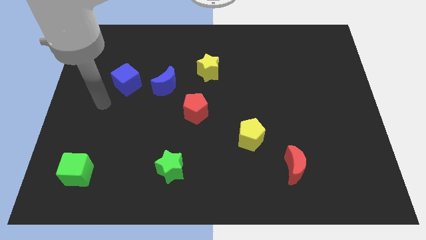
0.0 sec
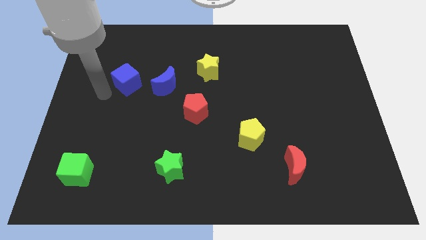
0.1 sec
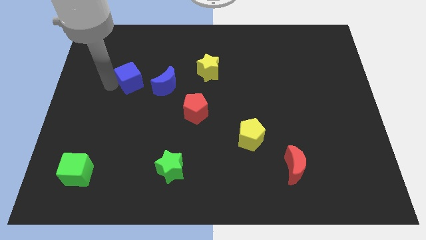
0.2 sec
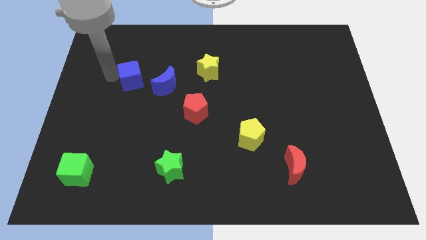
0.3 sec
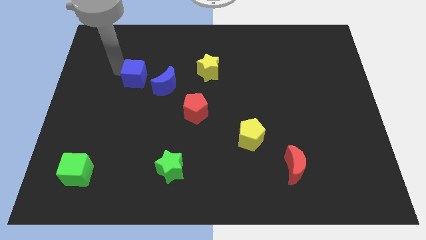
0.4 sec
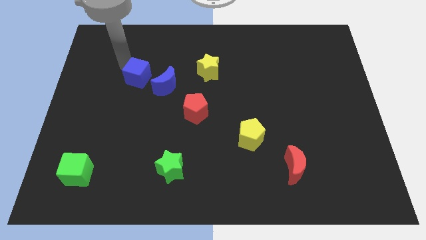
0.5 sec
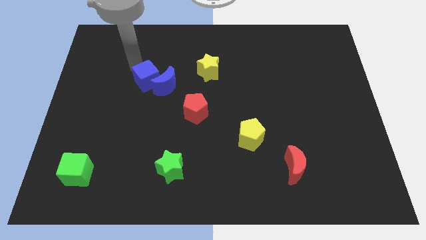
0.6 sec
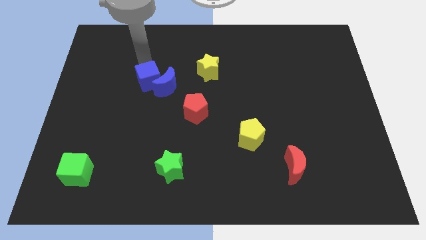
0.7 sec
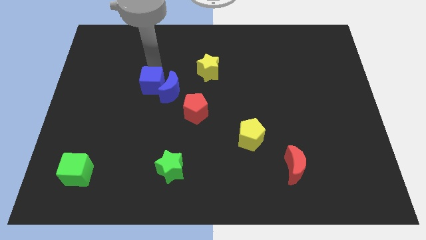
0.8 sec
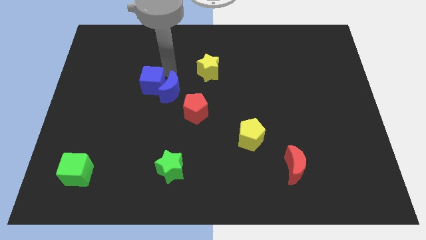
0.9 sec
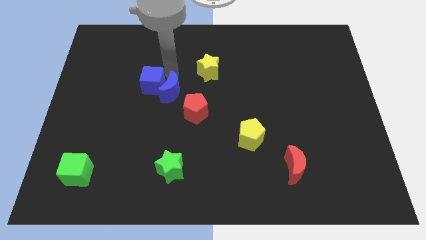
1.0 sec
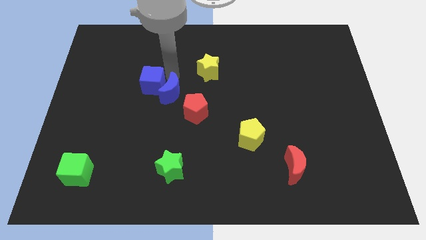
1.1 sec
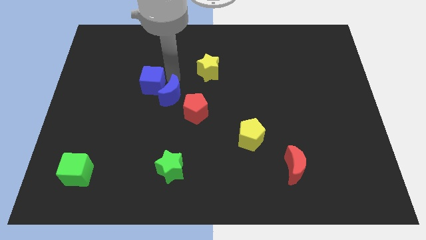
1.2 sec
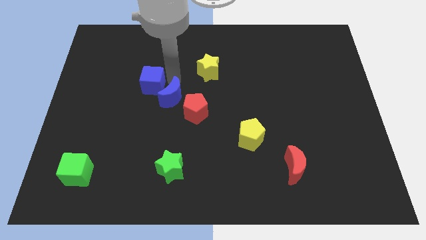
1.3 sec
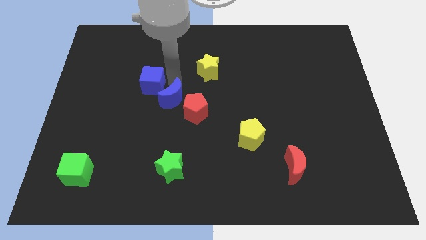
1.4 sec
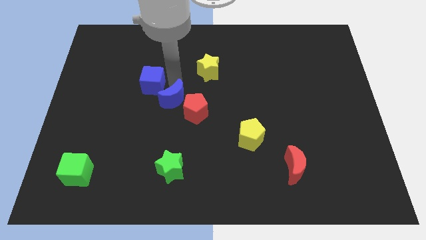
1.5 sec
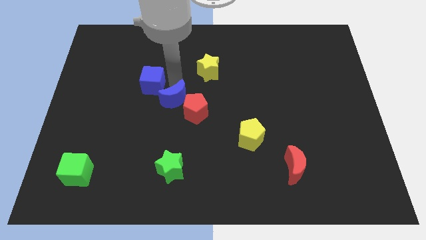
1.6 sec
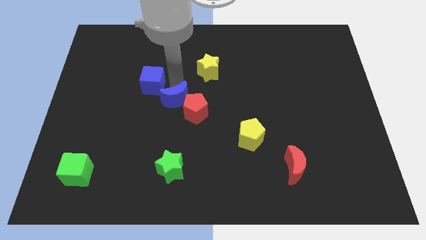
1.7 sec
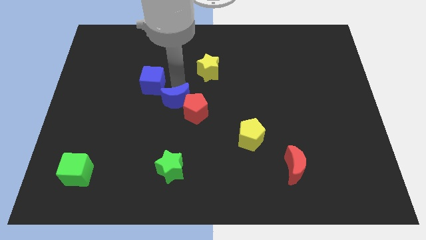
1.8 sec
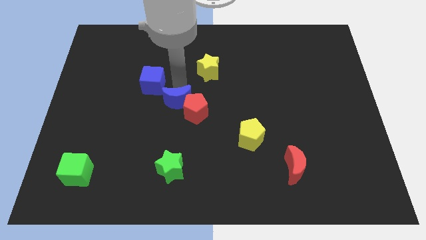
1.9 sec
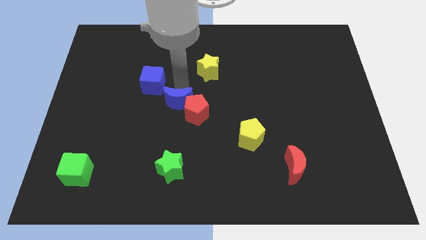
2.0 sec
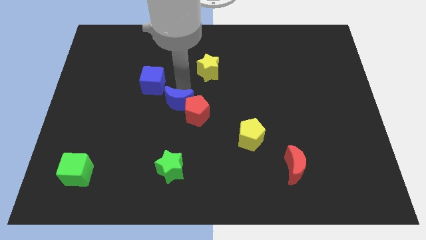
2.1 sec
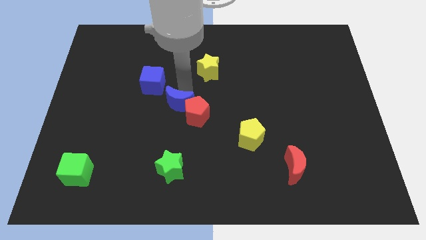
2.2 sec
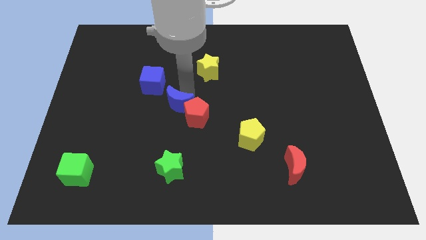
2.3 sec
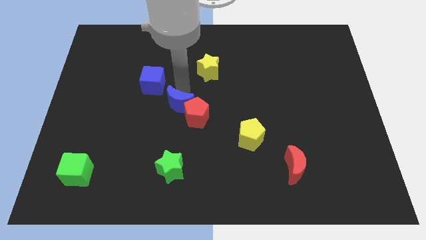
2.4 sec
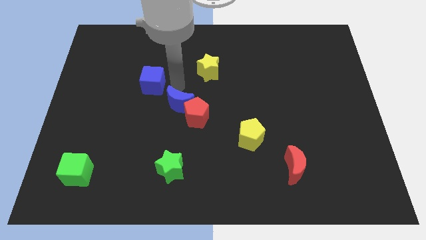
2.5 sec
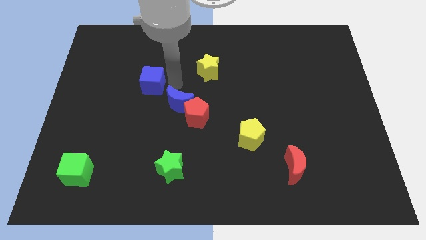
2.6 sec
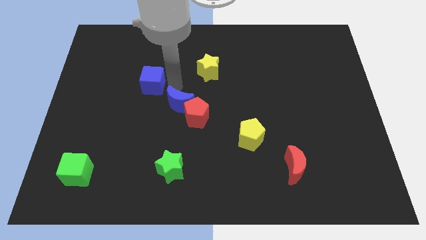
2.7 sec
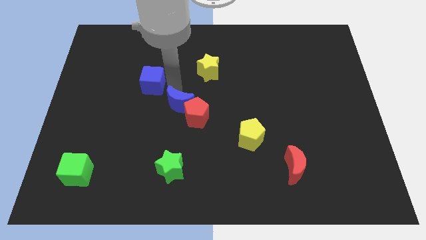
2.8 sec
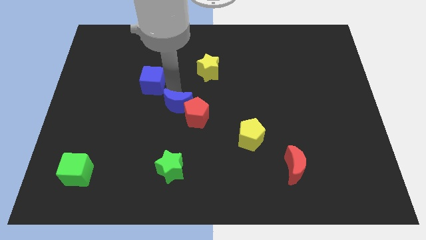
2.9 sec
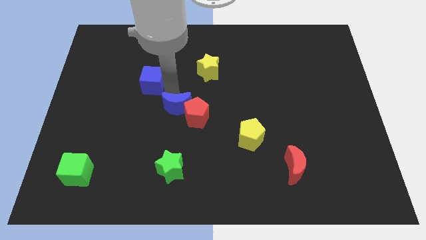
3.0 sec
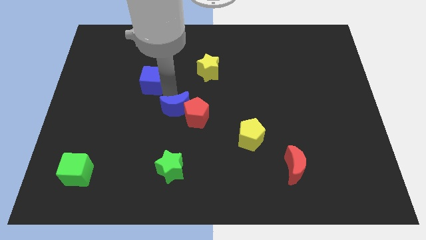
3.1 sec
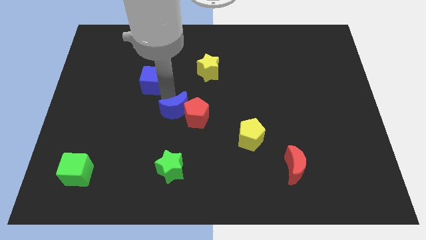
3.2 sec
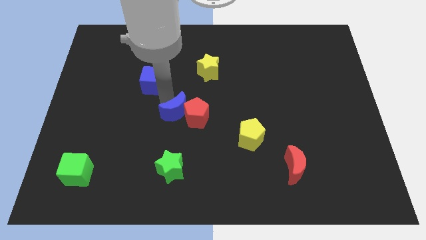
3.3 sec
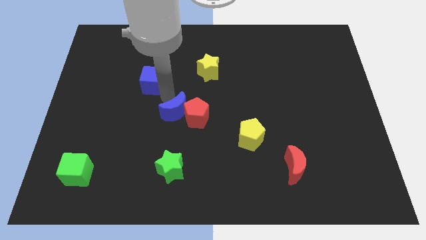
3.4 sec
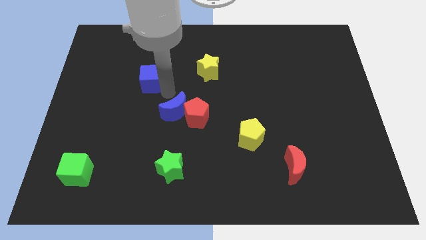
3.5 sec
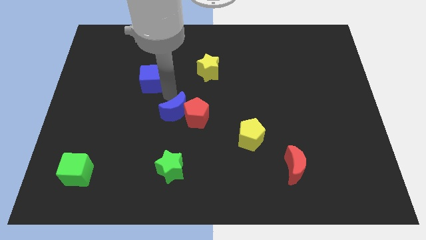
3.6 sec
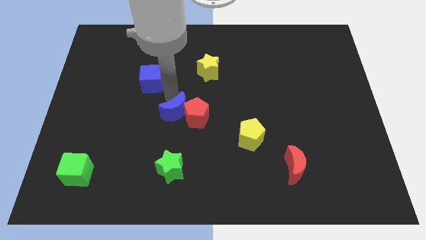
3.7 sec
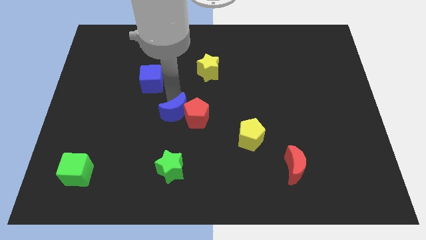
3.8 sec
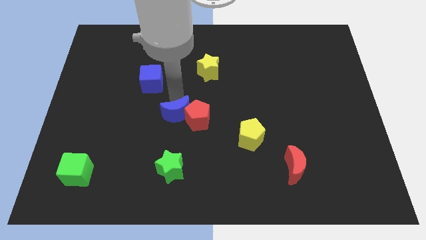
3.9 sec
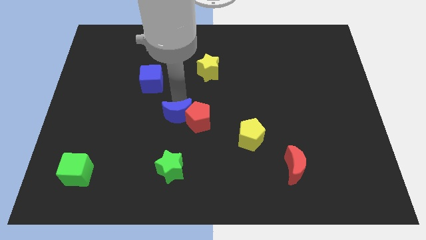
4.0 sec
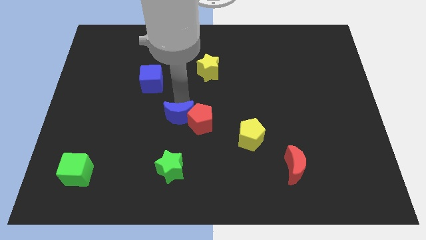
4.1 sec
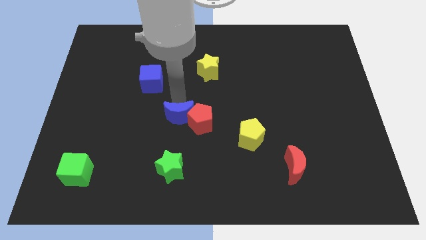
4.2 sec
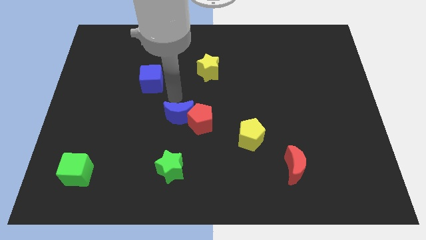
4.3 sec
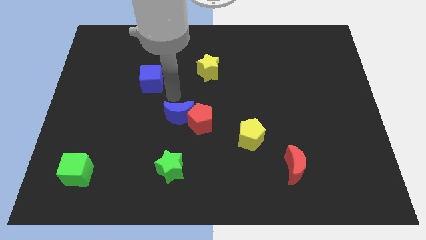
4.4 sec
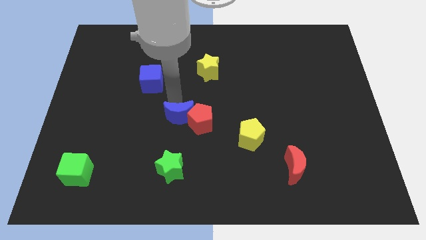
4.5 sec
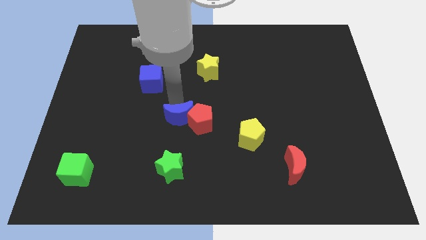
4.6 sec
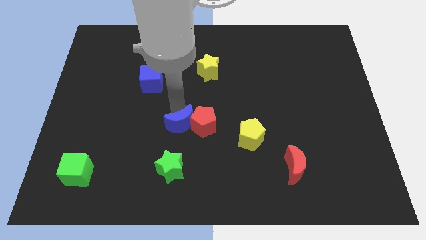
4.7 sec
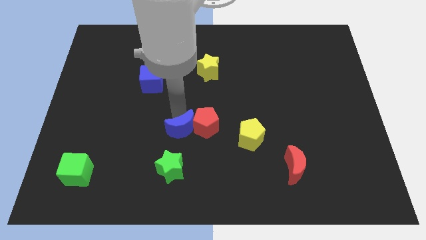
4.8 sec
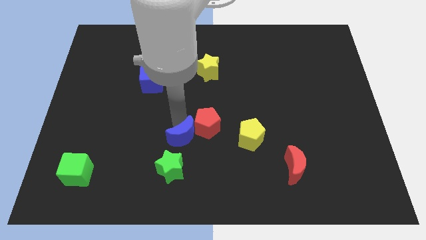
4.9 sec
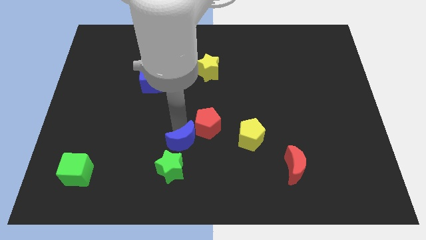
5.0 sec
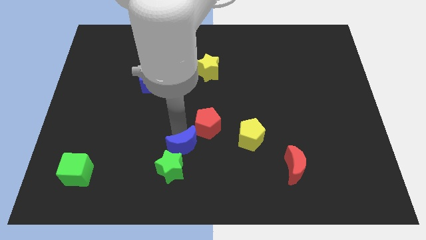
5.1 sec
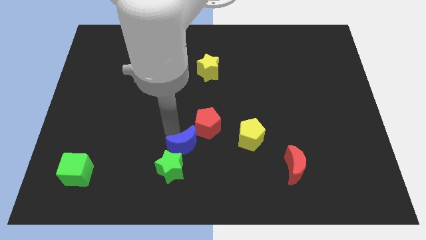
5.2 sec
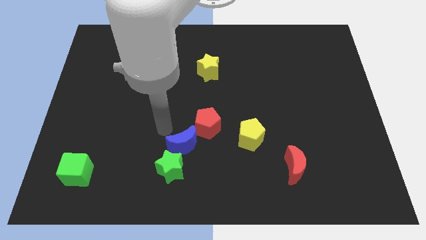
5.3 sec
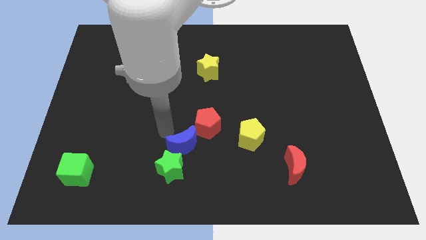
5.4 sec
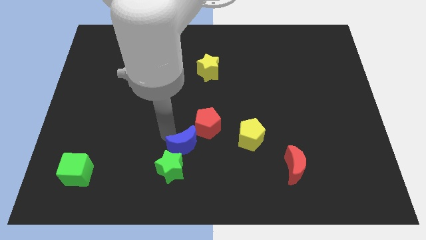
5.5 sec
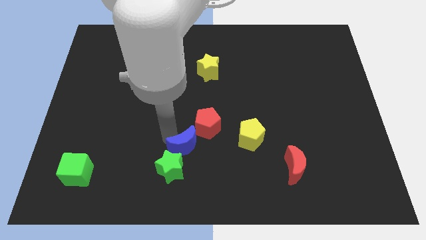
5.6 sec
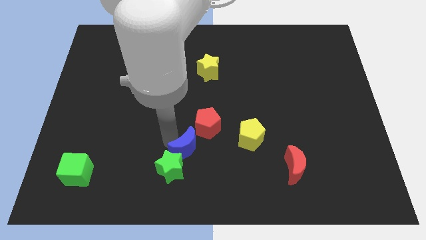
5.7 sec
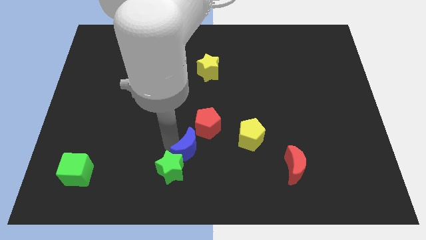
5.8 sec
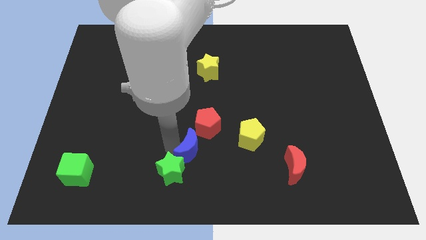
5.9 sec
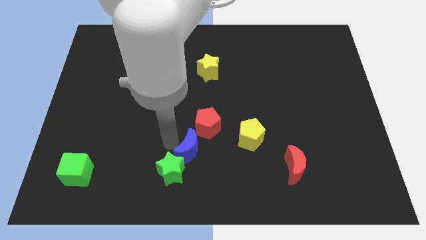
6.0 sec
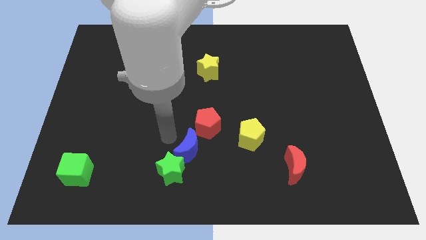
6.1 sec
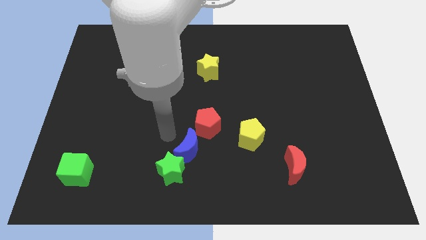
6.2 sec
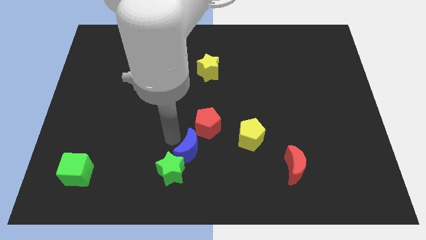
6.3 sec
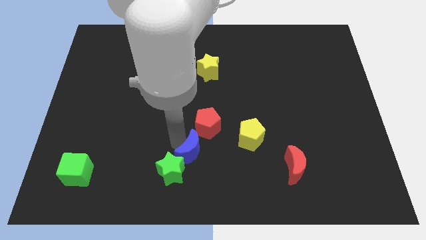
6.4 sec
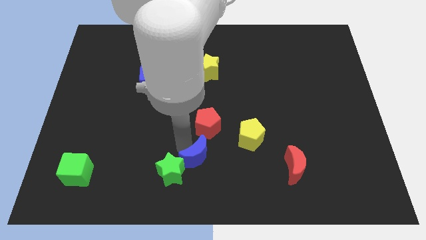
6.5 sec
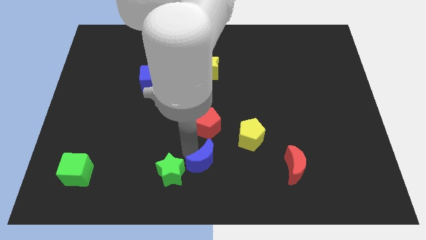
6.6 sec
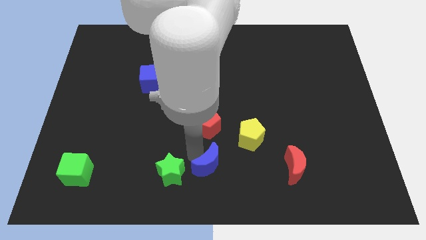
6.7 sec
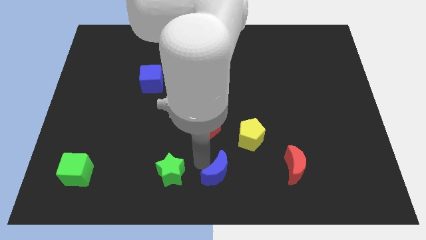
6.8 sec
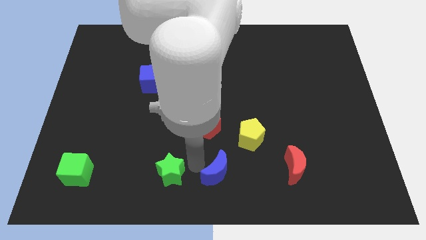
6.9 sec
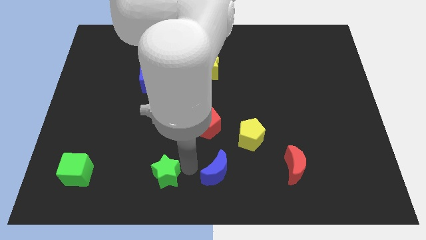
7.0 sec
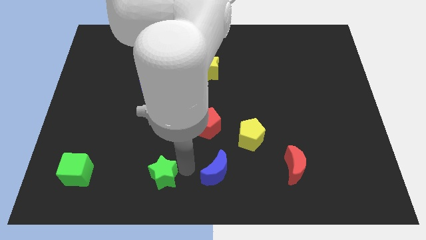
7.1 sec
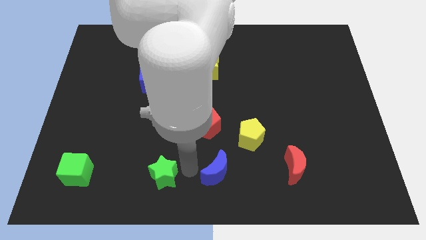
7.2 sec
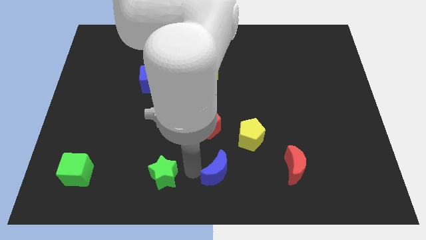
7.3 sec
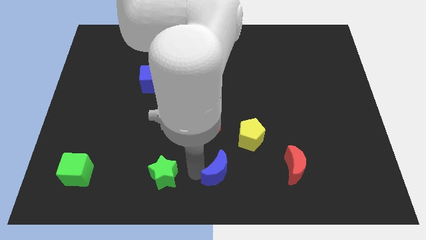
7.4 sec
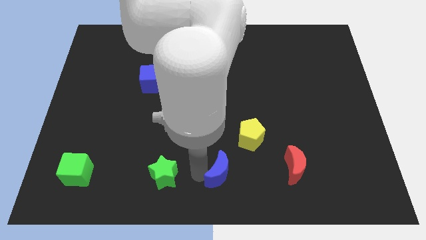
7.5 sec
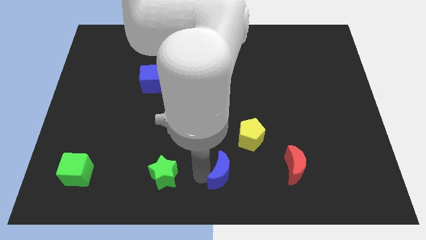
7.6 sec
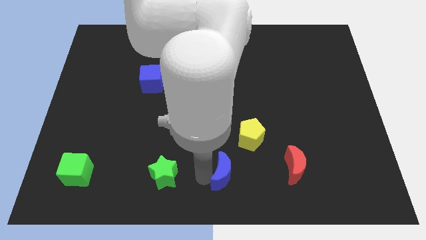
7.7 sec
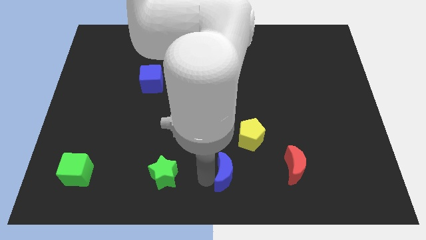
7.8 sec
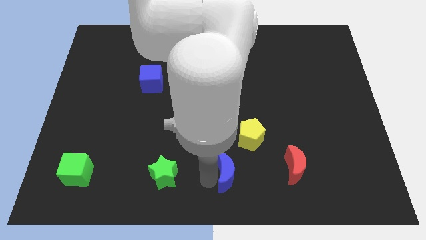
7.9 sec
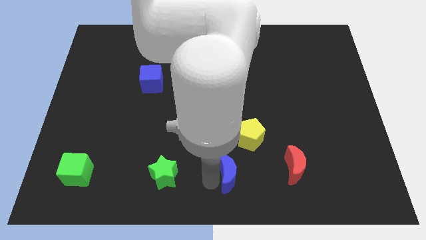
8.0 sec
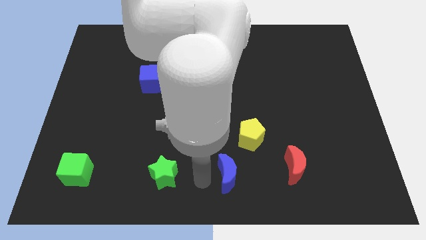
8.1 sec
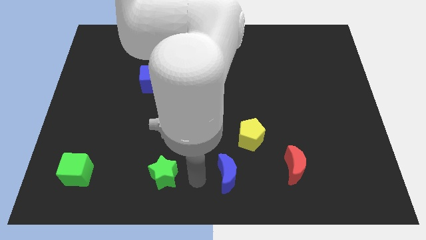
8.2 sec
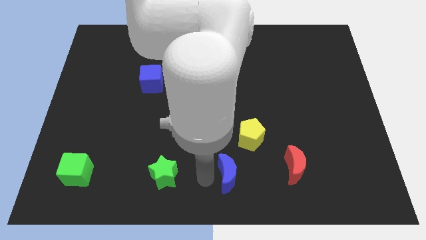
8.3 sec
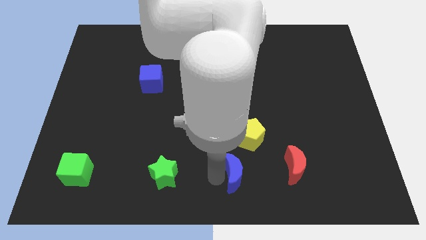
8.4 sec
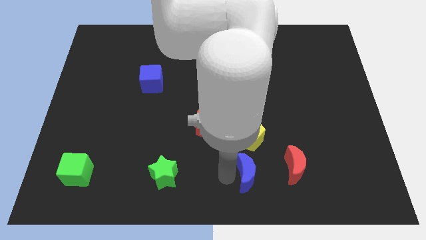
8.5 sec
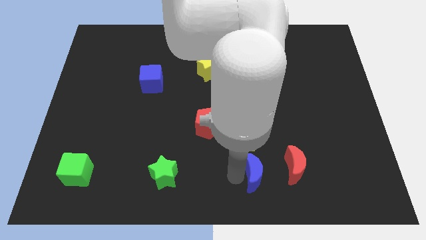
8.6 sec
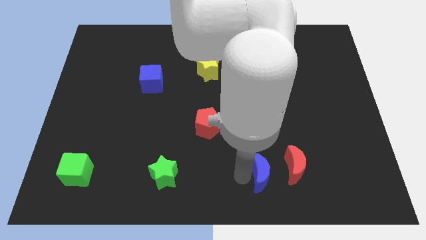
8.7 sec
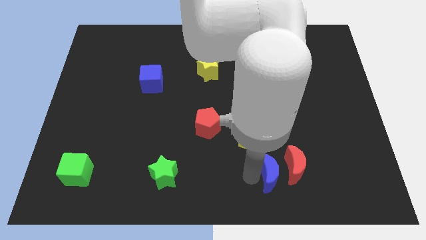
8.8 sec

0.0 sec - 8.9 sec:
push the blue moon close to the red moon
